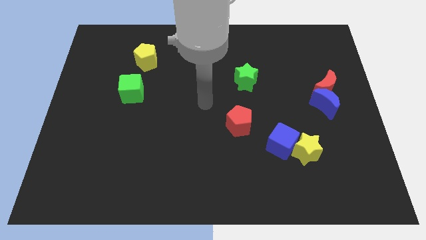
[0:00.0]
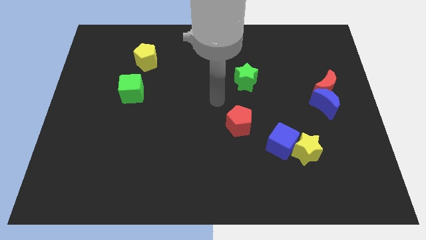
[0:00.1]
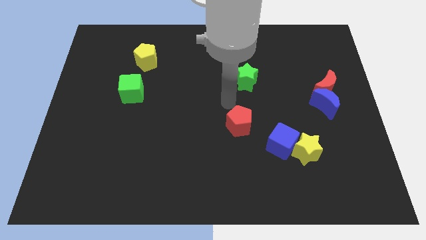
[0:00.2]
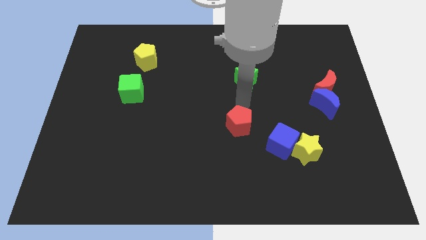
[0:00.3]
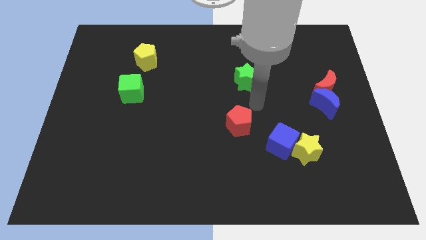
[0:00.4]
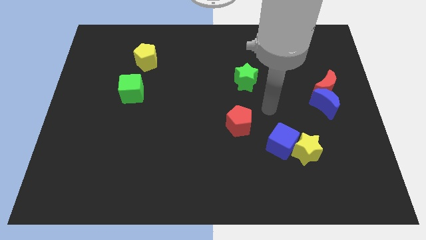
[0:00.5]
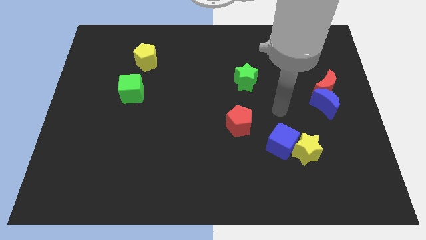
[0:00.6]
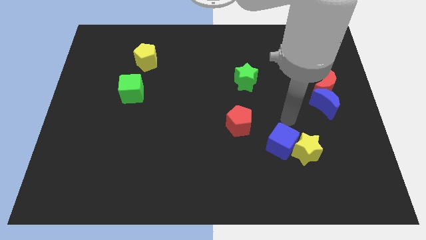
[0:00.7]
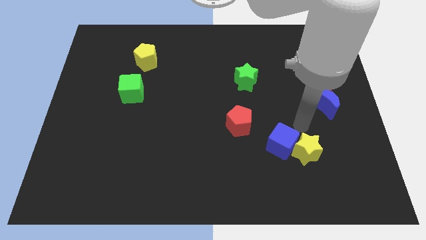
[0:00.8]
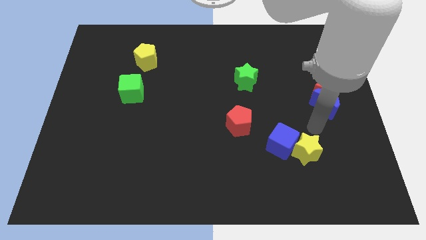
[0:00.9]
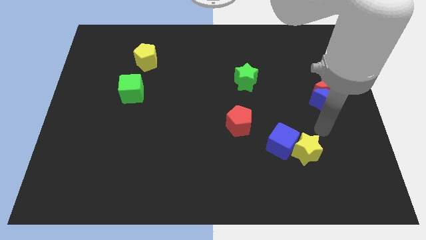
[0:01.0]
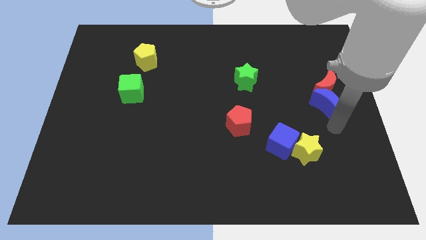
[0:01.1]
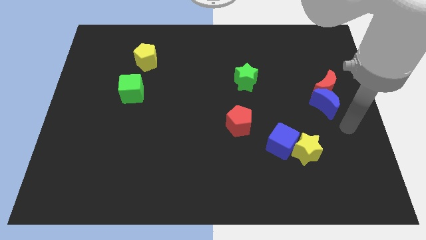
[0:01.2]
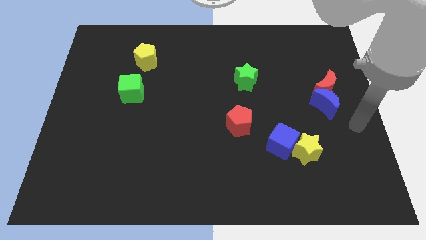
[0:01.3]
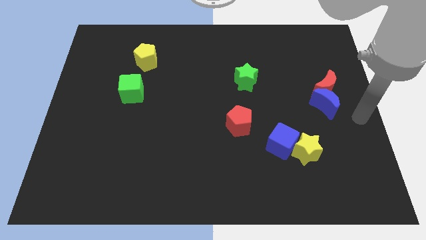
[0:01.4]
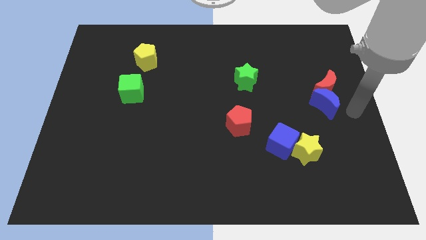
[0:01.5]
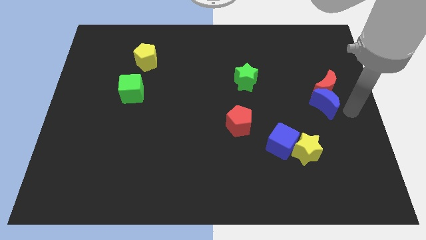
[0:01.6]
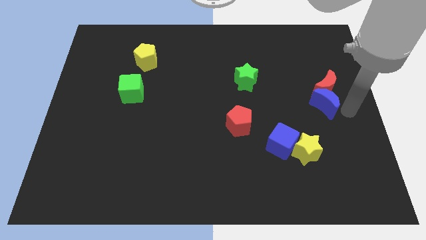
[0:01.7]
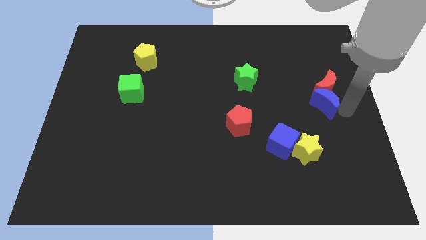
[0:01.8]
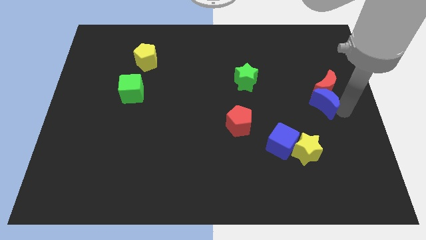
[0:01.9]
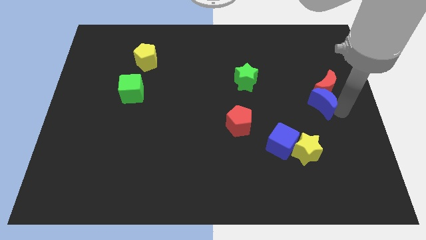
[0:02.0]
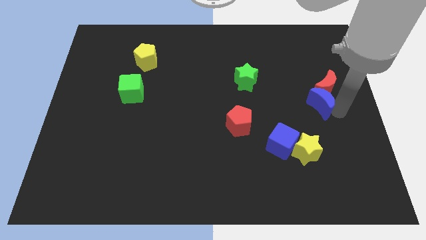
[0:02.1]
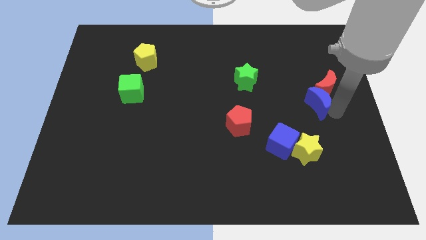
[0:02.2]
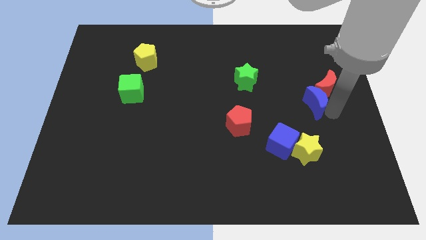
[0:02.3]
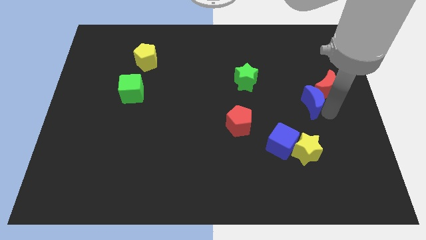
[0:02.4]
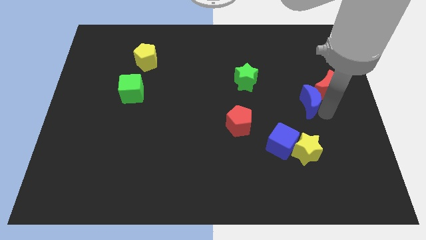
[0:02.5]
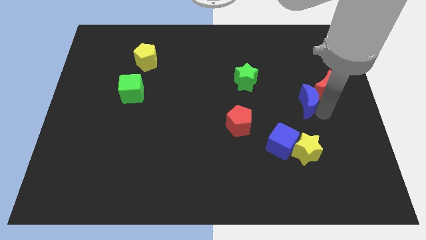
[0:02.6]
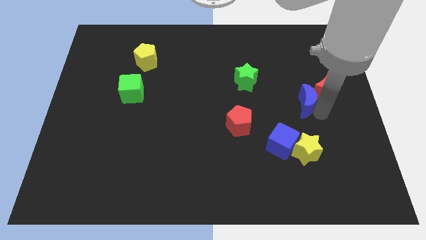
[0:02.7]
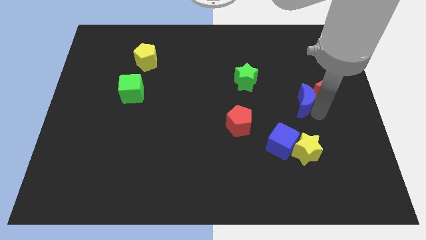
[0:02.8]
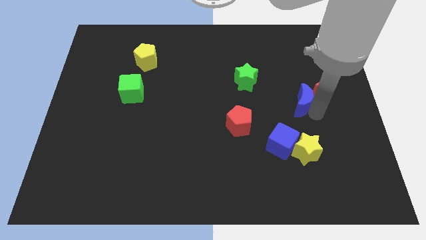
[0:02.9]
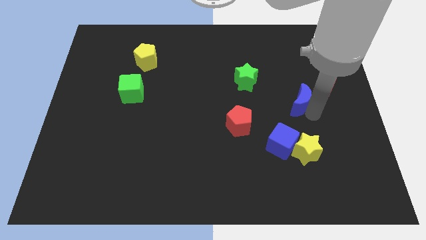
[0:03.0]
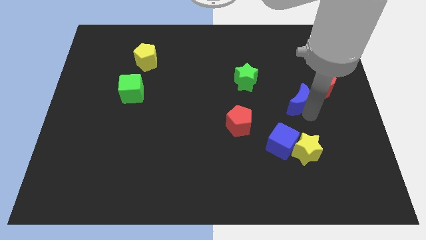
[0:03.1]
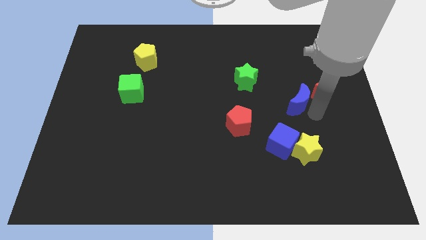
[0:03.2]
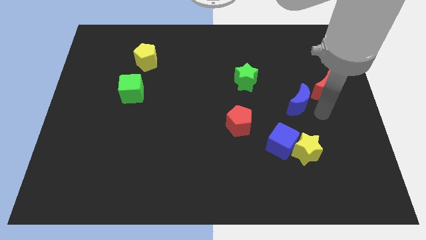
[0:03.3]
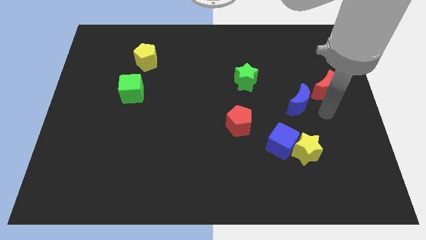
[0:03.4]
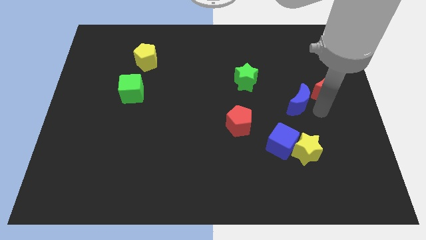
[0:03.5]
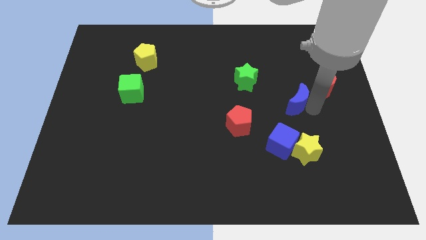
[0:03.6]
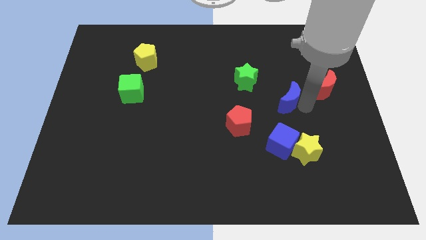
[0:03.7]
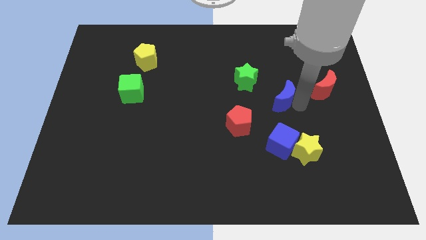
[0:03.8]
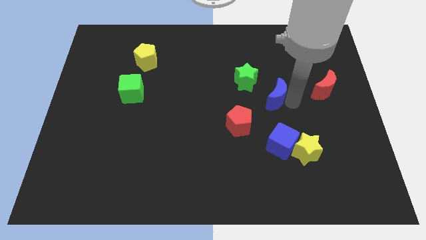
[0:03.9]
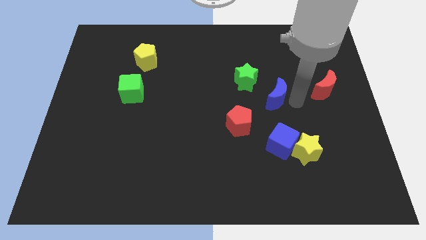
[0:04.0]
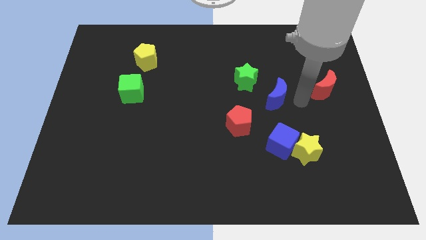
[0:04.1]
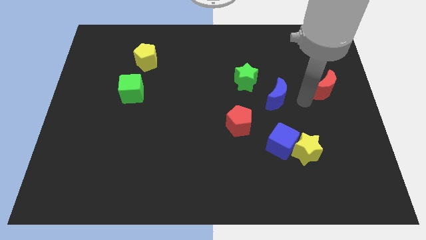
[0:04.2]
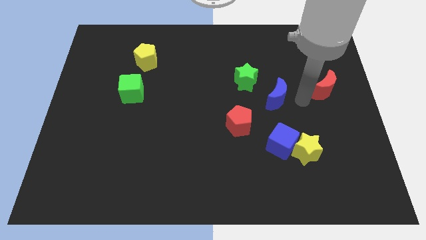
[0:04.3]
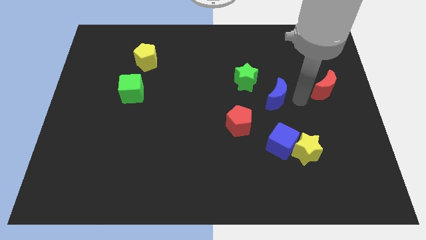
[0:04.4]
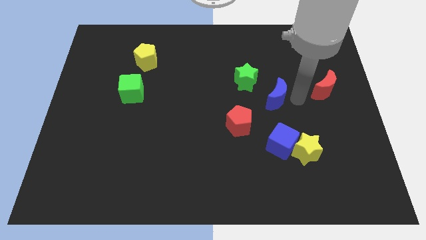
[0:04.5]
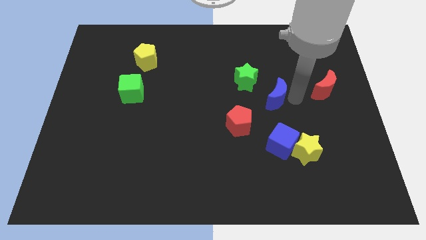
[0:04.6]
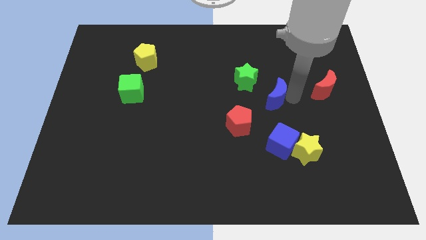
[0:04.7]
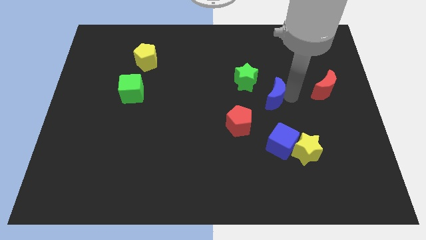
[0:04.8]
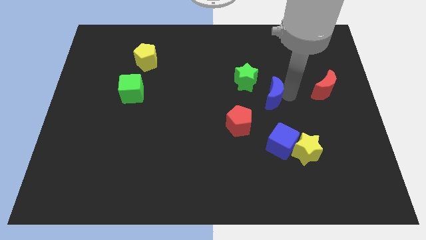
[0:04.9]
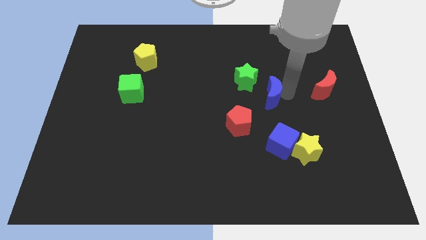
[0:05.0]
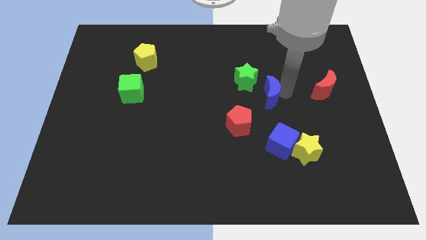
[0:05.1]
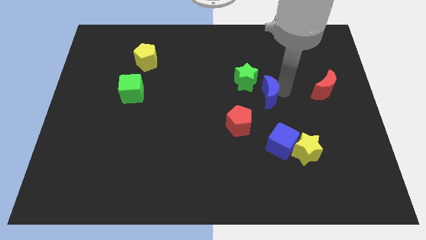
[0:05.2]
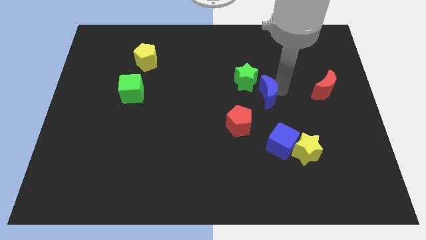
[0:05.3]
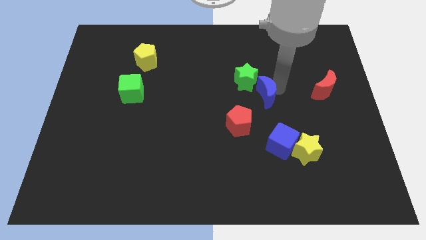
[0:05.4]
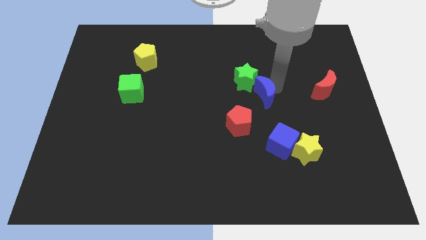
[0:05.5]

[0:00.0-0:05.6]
slide the blue moon to the center
